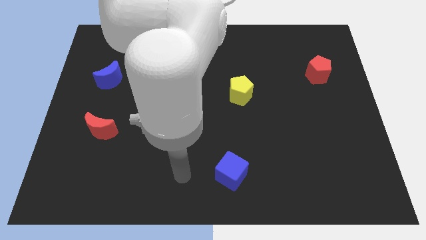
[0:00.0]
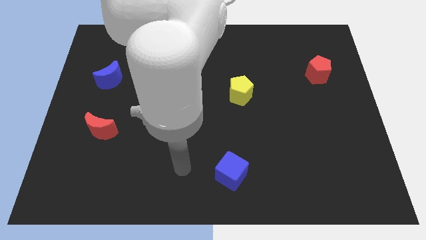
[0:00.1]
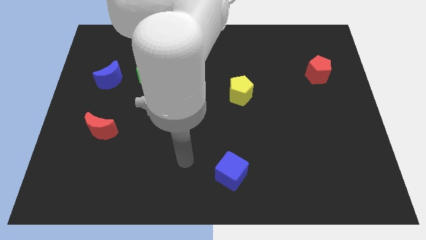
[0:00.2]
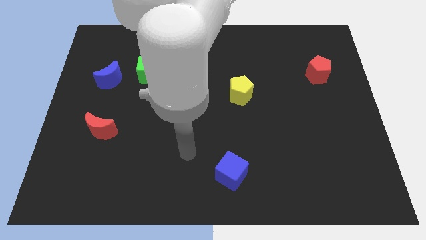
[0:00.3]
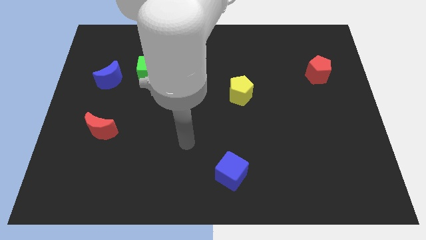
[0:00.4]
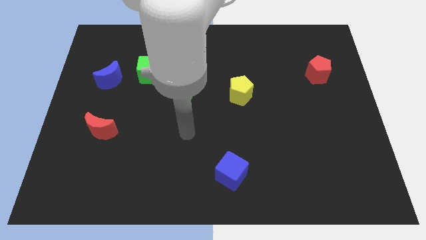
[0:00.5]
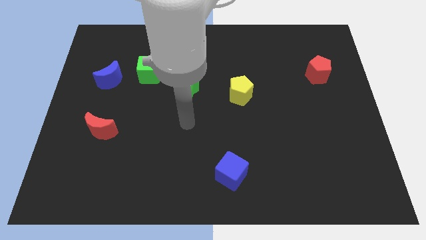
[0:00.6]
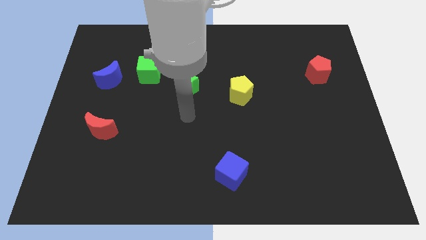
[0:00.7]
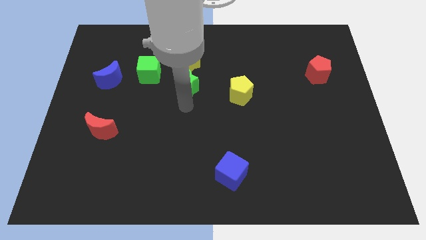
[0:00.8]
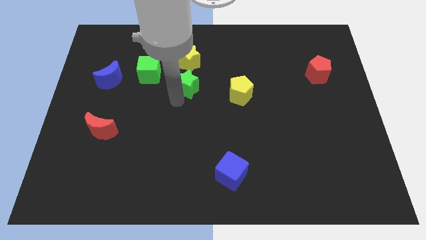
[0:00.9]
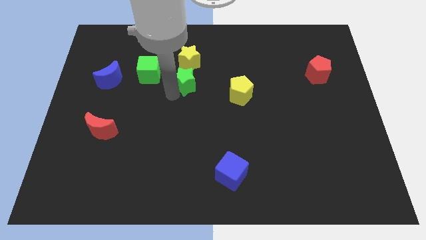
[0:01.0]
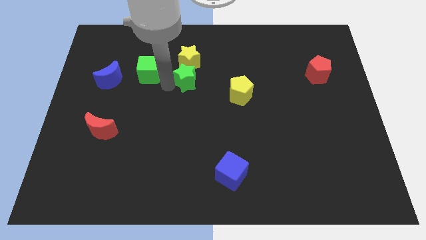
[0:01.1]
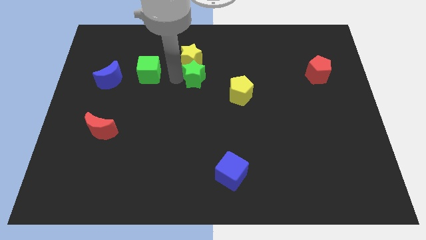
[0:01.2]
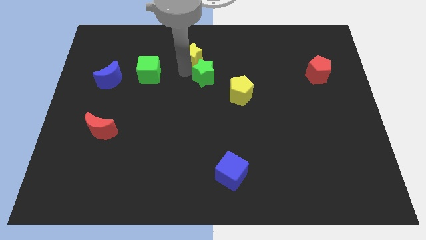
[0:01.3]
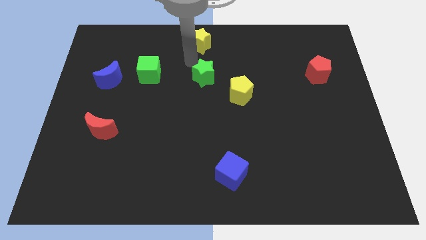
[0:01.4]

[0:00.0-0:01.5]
separate the green star from the yellow star

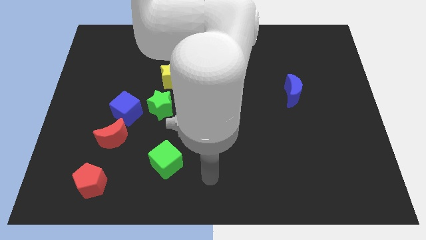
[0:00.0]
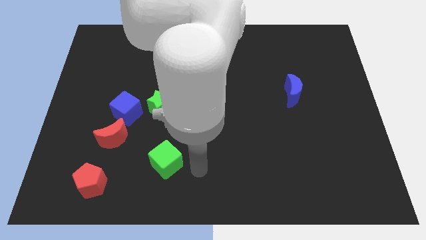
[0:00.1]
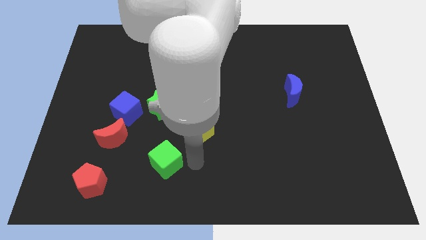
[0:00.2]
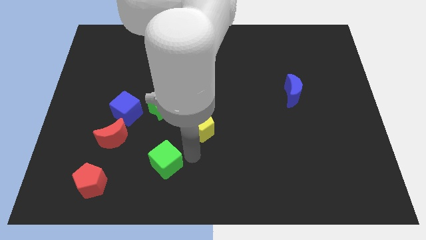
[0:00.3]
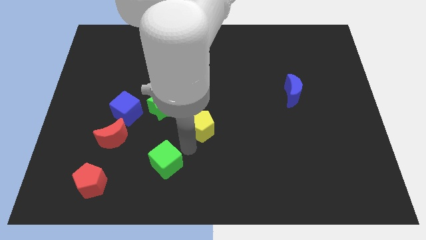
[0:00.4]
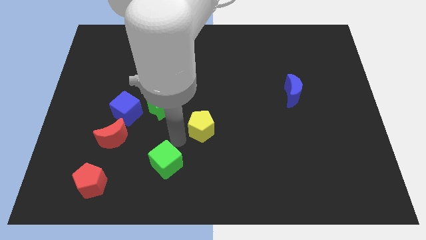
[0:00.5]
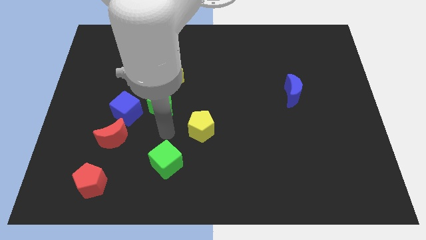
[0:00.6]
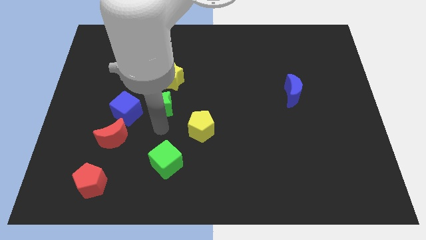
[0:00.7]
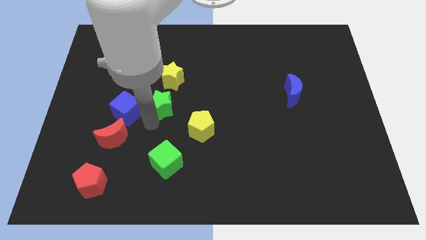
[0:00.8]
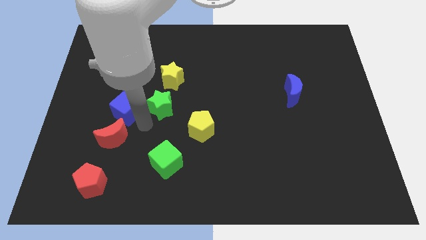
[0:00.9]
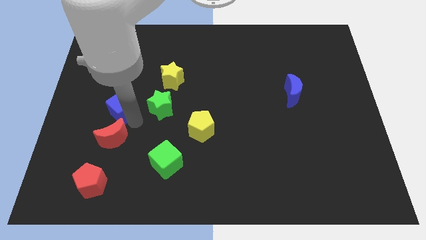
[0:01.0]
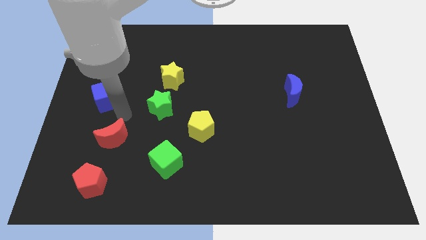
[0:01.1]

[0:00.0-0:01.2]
pull the red moon apart from the blue cube

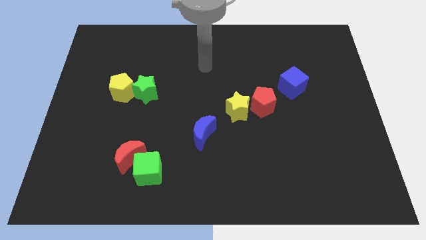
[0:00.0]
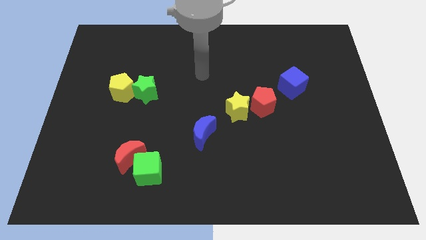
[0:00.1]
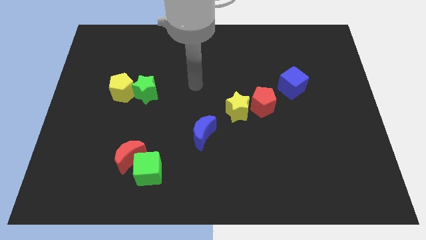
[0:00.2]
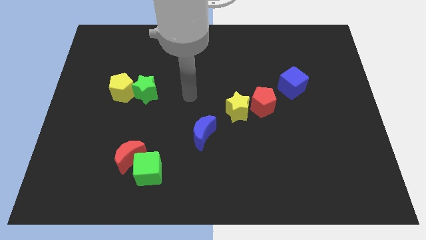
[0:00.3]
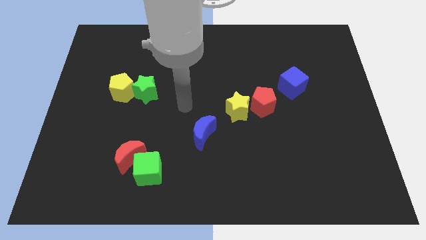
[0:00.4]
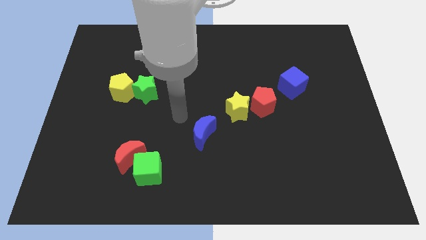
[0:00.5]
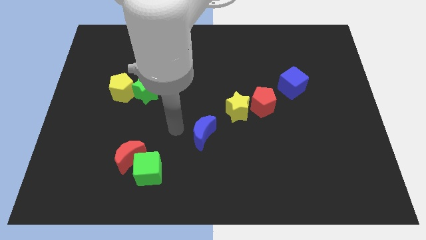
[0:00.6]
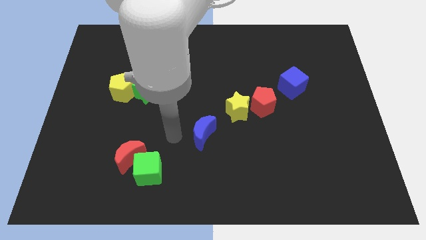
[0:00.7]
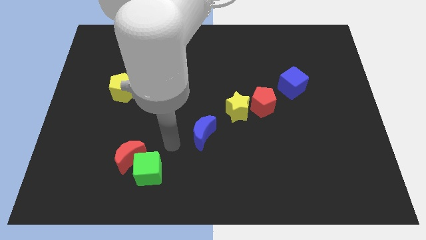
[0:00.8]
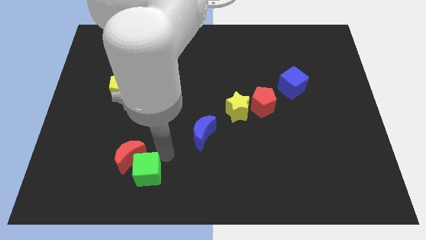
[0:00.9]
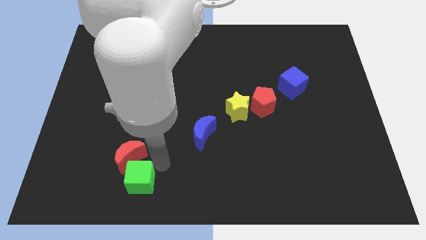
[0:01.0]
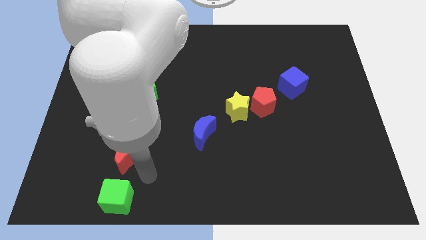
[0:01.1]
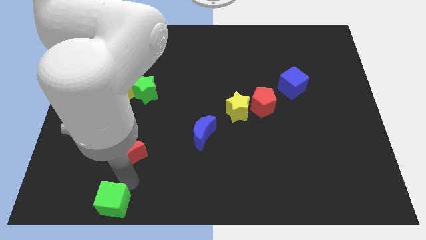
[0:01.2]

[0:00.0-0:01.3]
pull the red moon apart from the green cube

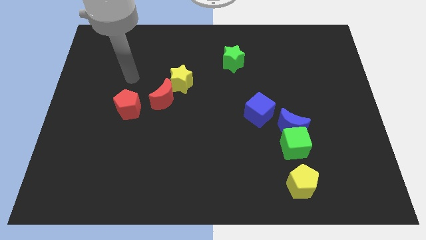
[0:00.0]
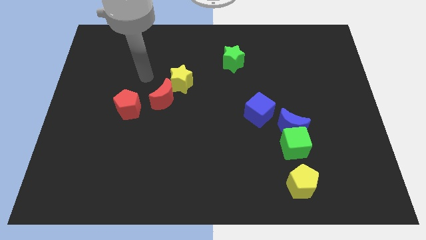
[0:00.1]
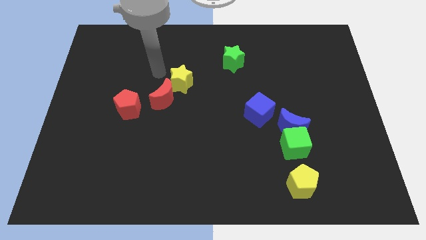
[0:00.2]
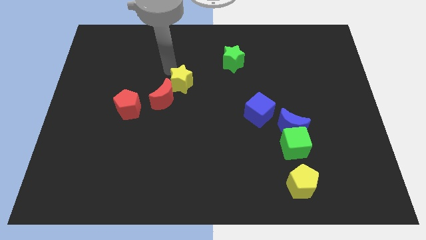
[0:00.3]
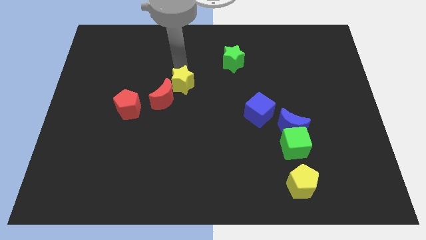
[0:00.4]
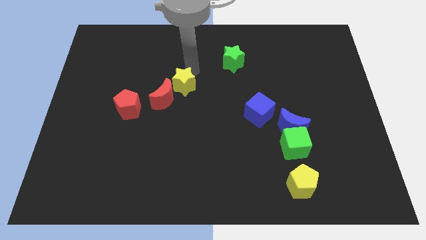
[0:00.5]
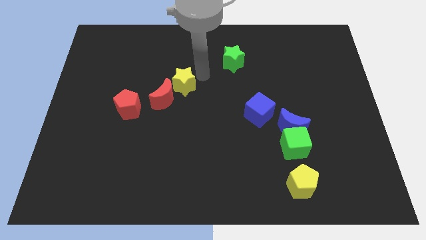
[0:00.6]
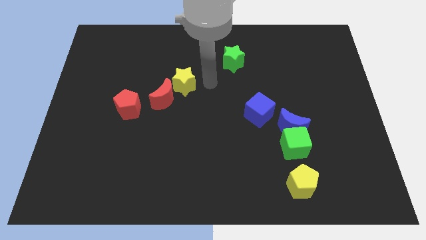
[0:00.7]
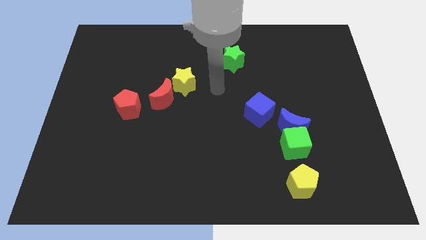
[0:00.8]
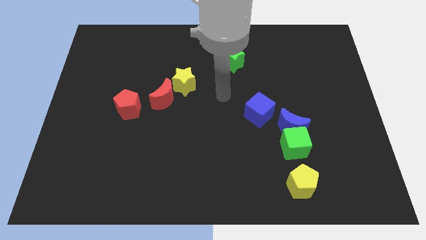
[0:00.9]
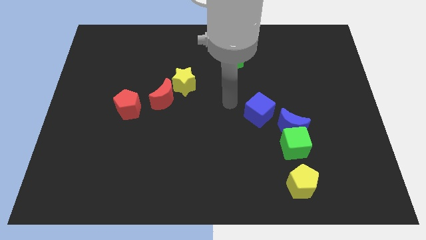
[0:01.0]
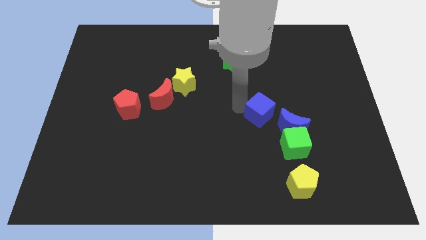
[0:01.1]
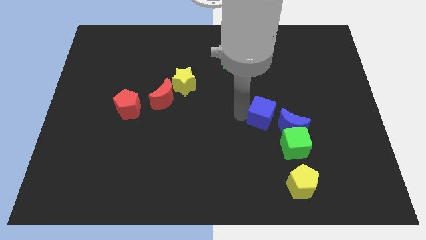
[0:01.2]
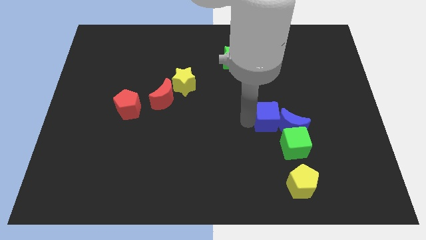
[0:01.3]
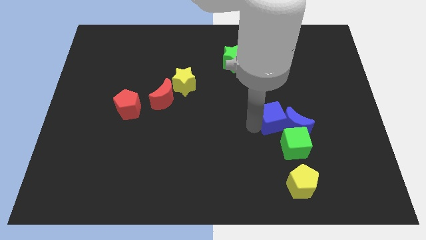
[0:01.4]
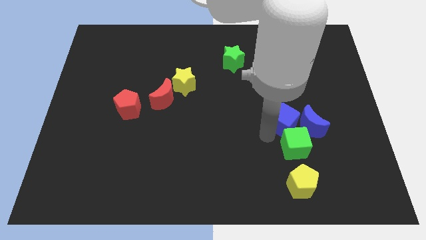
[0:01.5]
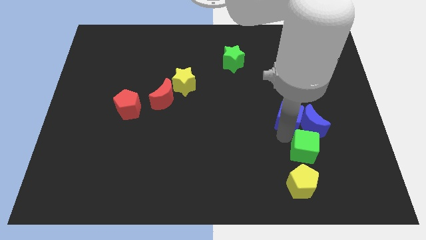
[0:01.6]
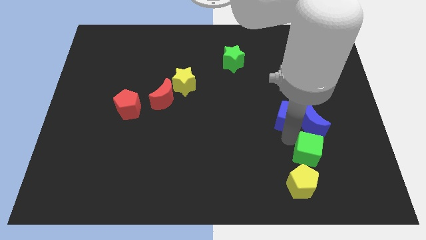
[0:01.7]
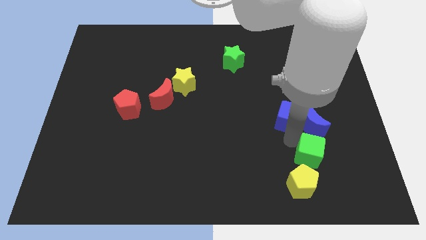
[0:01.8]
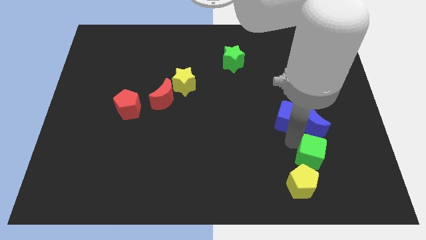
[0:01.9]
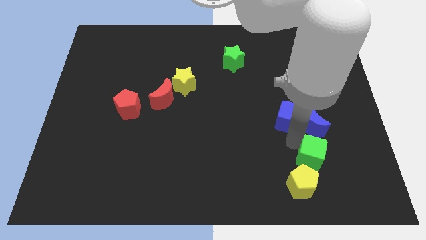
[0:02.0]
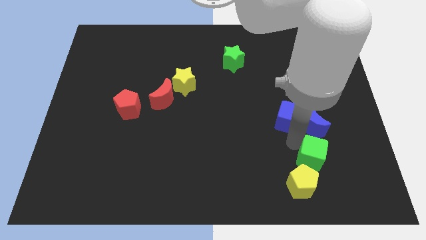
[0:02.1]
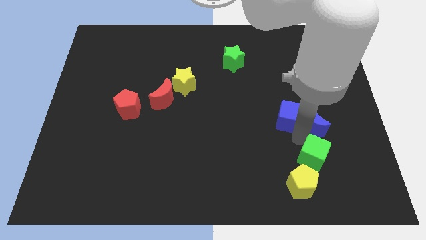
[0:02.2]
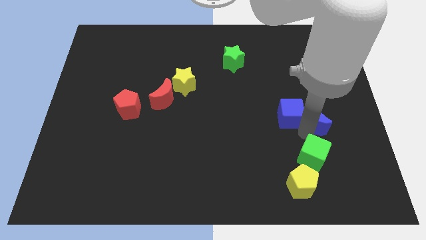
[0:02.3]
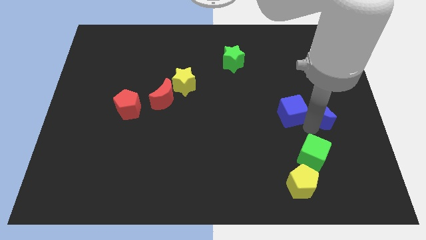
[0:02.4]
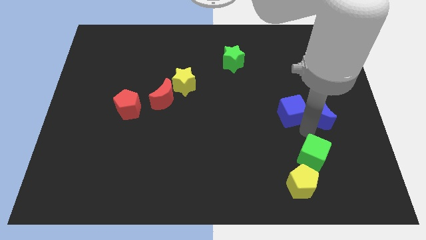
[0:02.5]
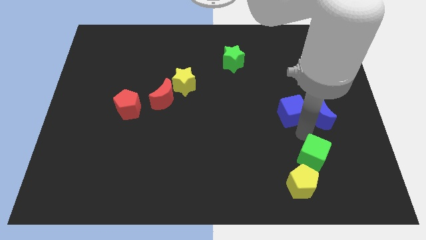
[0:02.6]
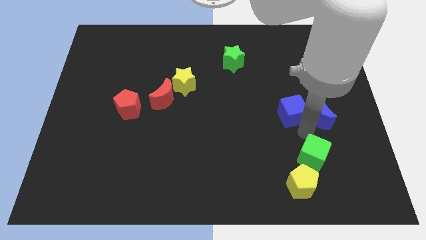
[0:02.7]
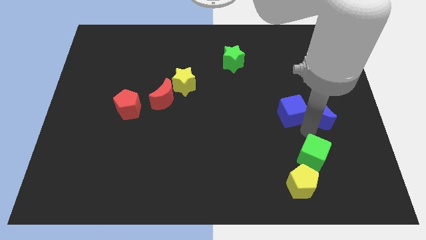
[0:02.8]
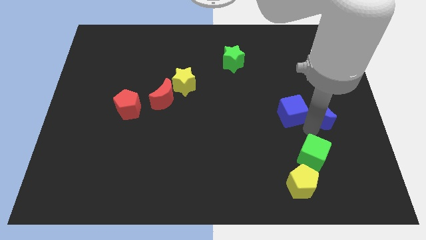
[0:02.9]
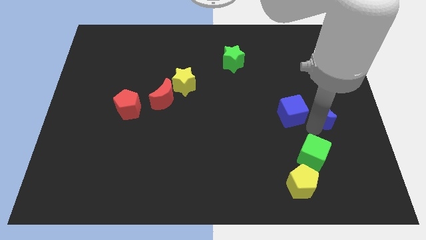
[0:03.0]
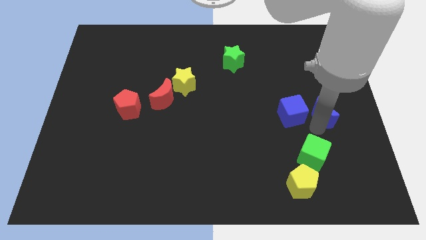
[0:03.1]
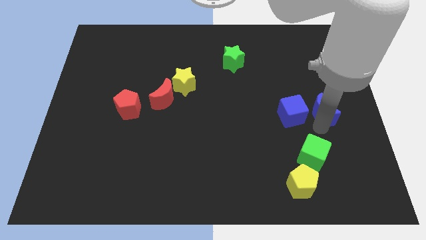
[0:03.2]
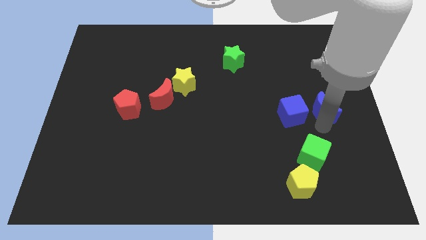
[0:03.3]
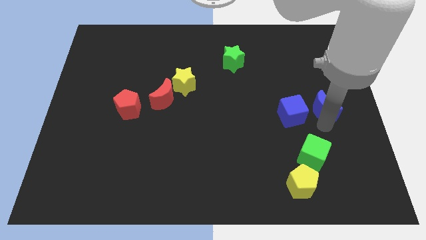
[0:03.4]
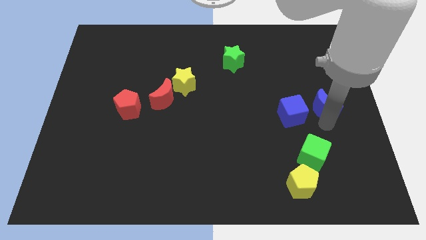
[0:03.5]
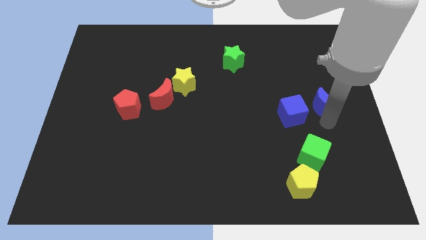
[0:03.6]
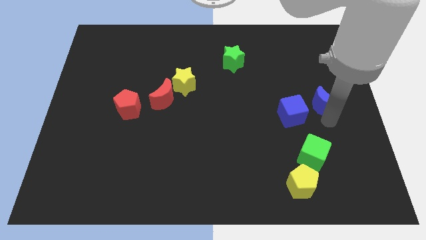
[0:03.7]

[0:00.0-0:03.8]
separate the blue moon from the green cube and blue cube

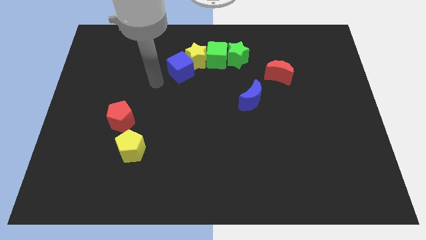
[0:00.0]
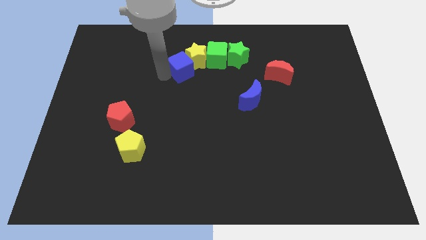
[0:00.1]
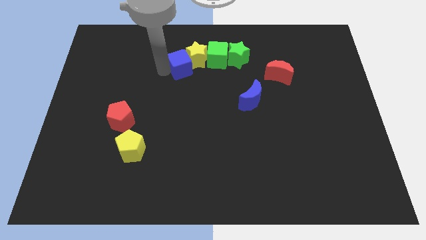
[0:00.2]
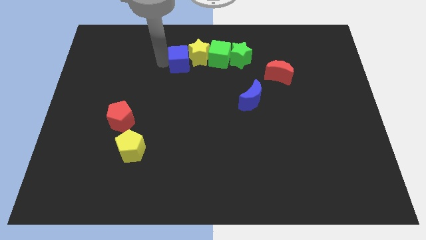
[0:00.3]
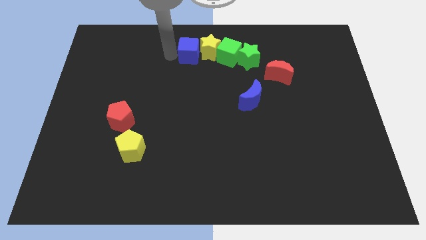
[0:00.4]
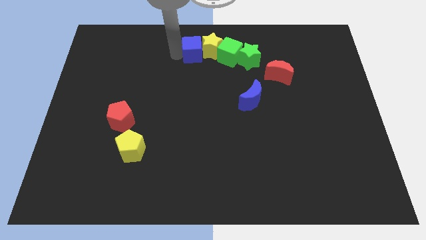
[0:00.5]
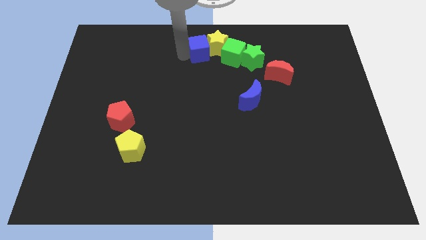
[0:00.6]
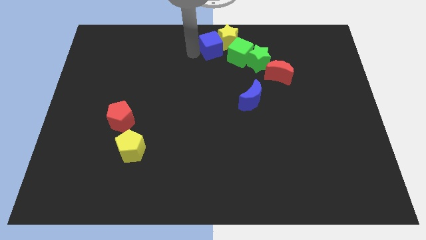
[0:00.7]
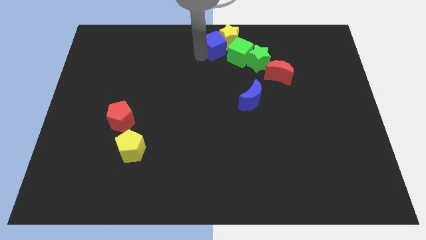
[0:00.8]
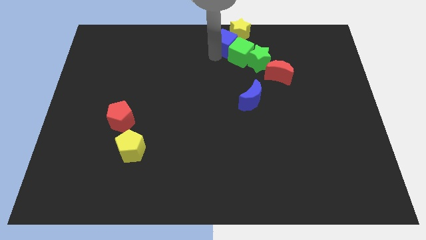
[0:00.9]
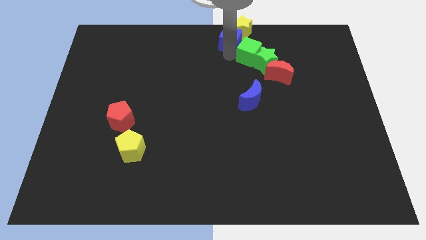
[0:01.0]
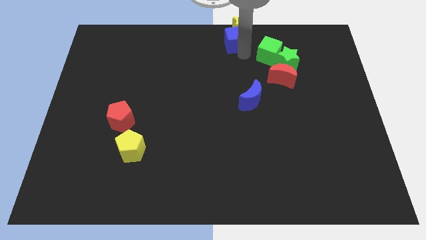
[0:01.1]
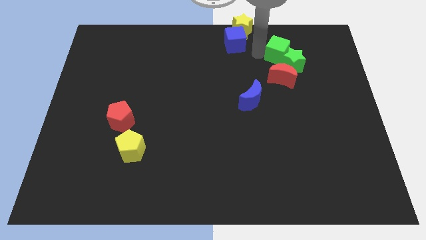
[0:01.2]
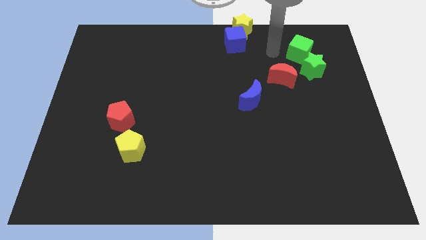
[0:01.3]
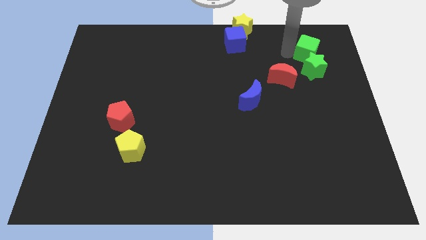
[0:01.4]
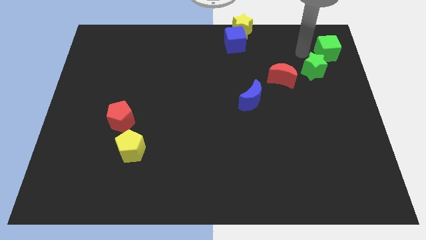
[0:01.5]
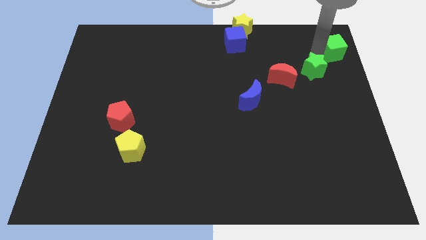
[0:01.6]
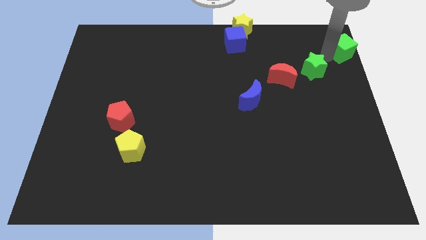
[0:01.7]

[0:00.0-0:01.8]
separate the green star from the green cube
